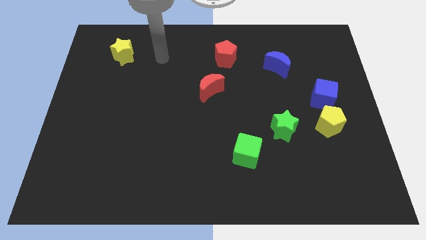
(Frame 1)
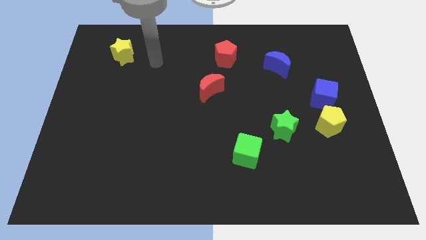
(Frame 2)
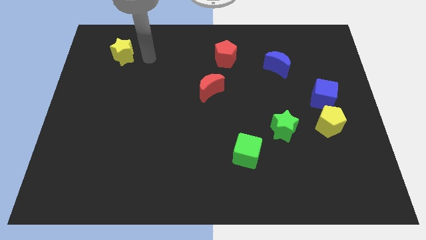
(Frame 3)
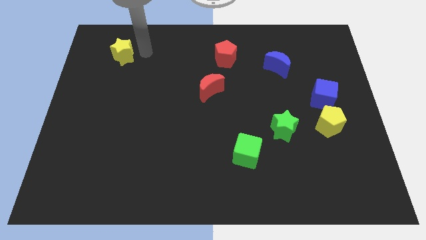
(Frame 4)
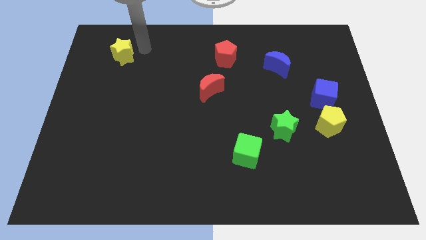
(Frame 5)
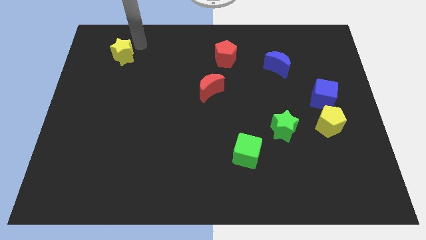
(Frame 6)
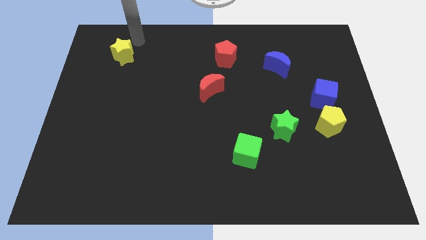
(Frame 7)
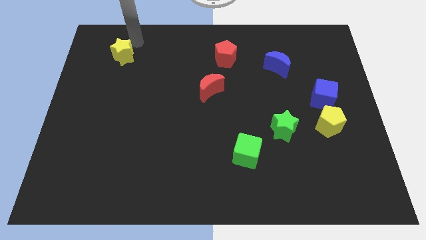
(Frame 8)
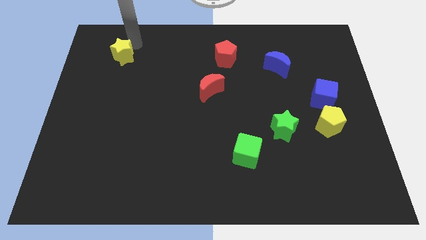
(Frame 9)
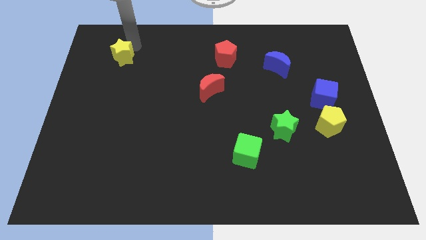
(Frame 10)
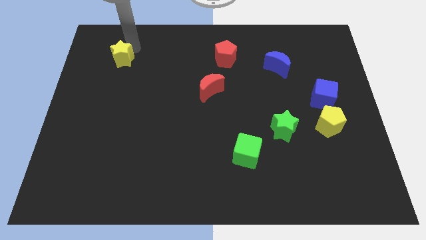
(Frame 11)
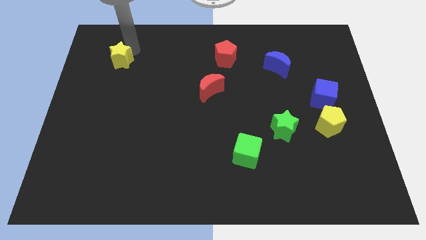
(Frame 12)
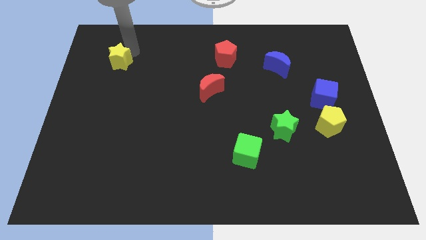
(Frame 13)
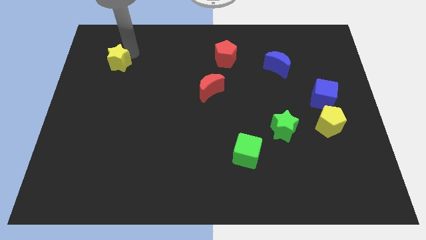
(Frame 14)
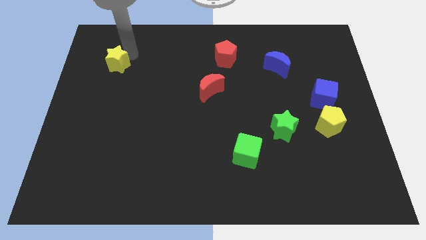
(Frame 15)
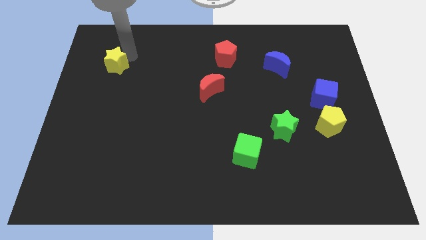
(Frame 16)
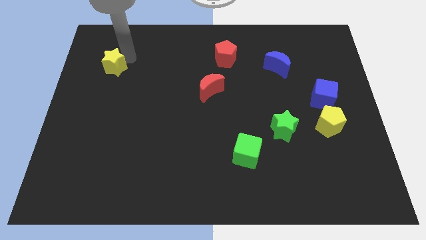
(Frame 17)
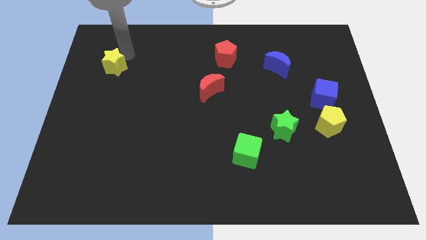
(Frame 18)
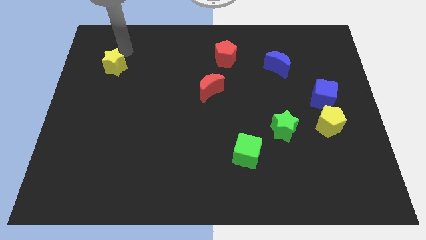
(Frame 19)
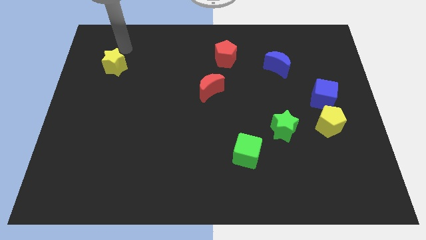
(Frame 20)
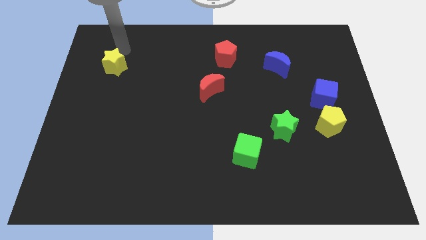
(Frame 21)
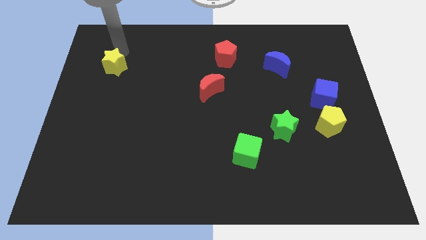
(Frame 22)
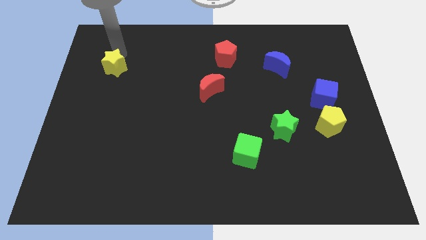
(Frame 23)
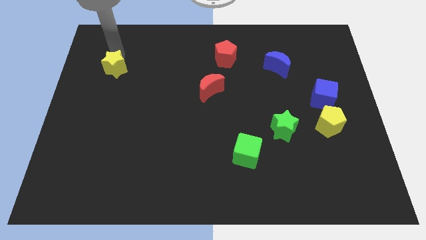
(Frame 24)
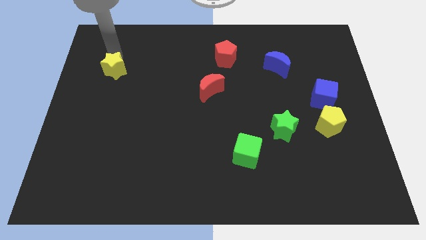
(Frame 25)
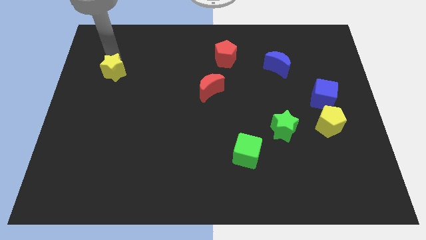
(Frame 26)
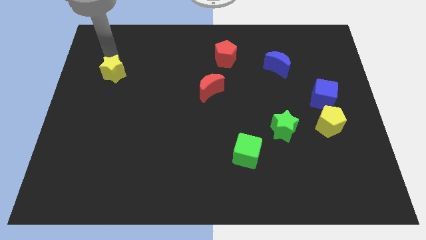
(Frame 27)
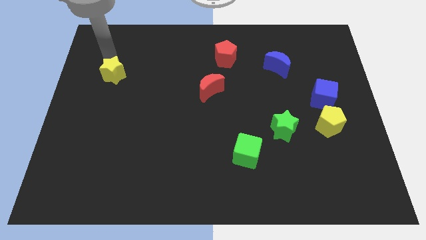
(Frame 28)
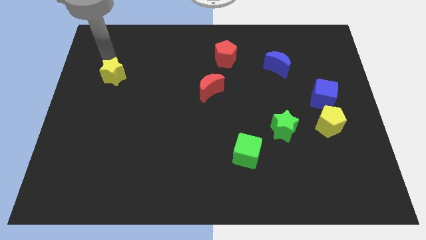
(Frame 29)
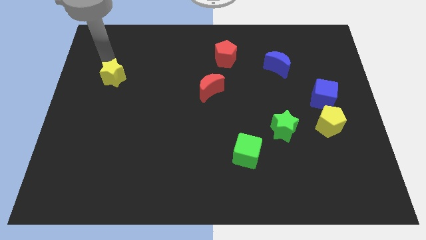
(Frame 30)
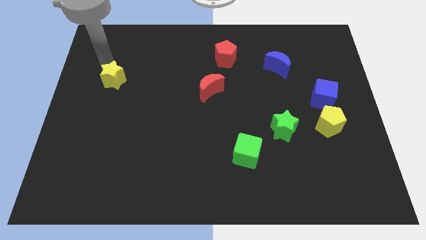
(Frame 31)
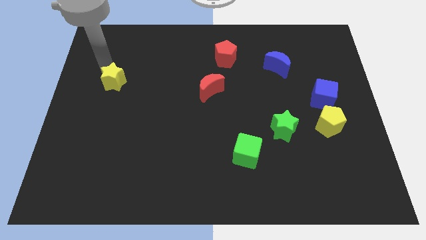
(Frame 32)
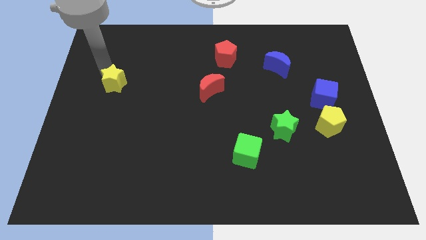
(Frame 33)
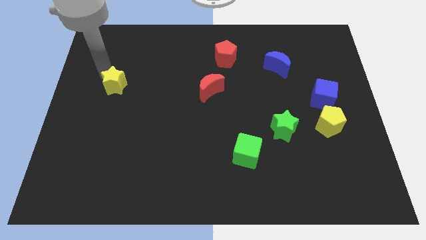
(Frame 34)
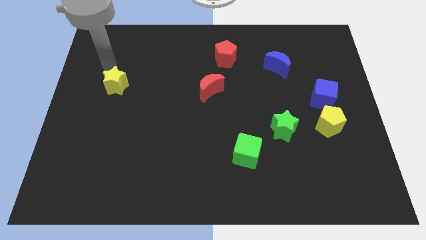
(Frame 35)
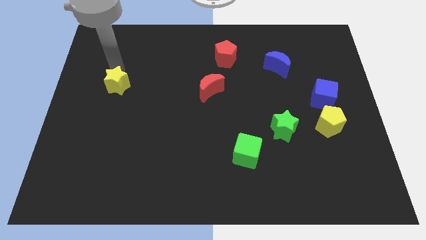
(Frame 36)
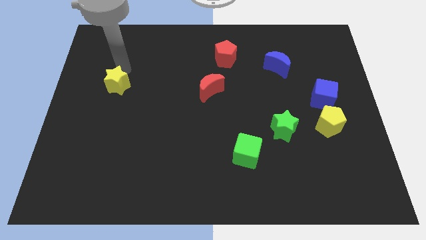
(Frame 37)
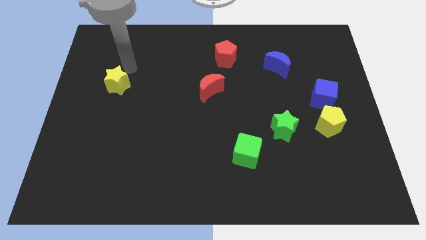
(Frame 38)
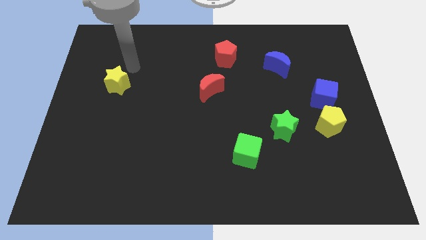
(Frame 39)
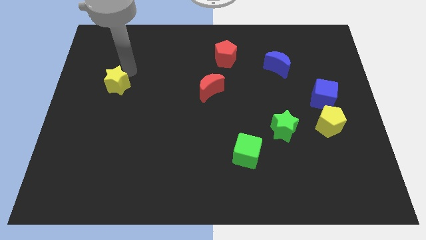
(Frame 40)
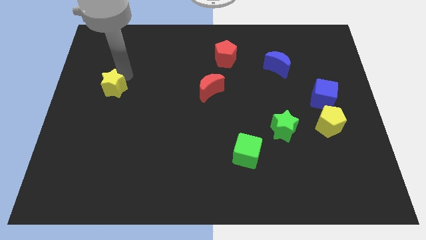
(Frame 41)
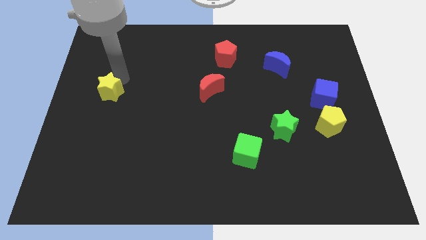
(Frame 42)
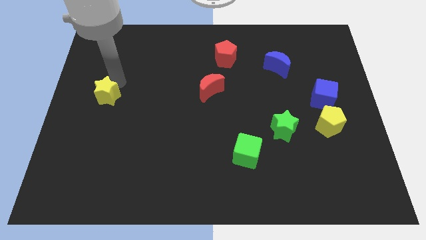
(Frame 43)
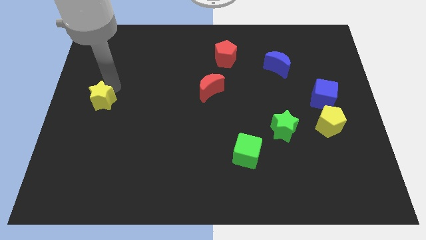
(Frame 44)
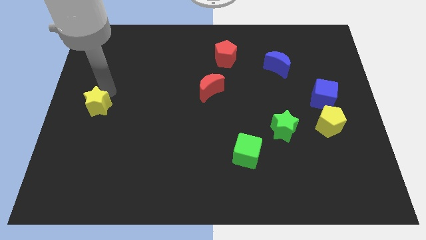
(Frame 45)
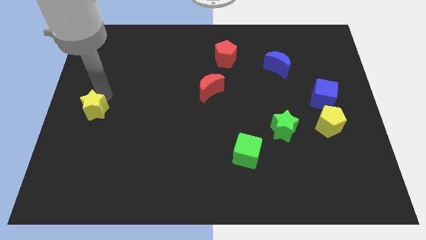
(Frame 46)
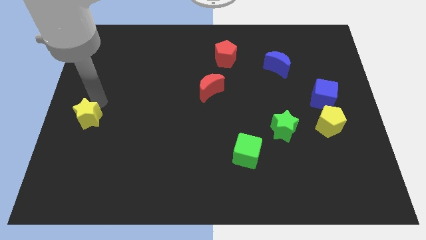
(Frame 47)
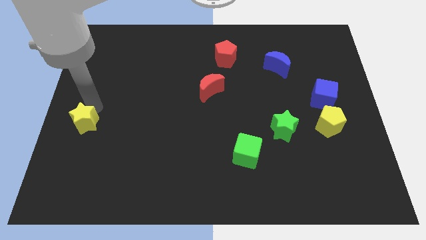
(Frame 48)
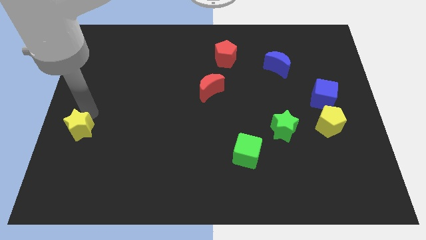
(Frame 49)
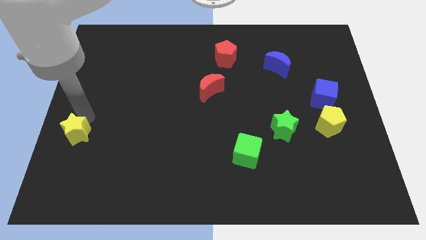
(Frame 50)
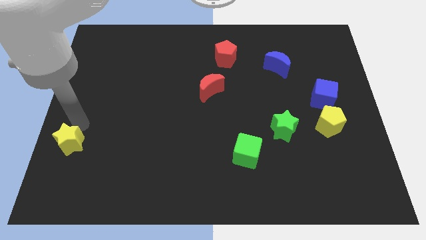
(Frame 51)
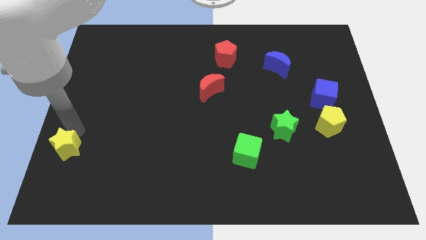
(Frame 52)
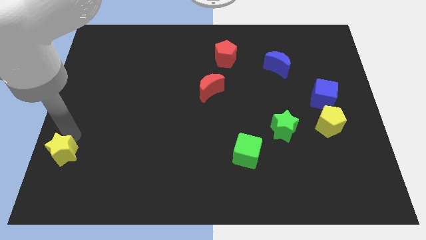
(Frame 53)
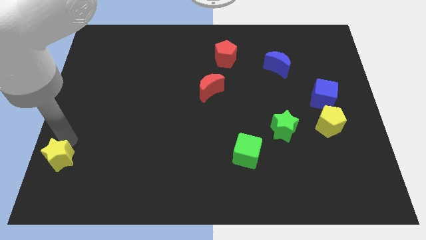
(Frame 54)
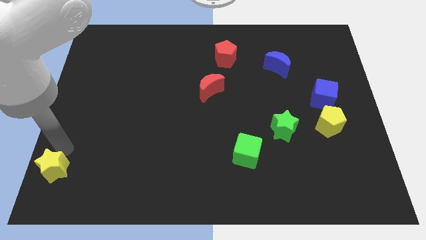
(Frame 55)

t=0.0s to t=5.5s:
push the yellow star to the bottom left of the board

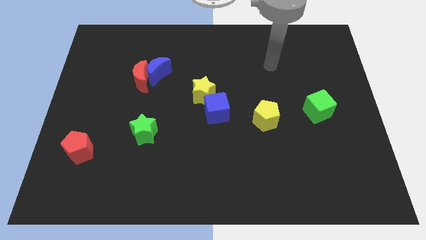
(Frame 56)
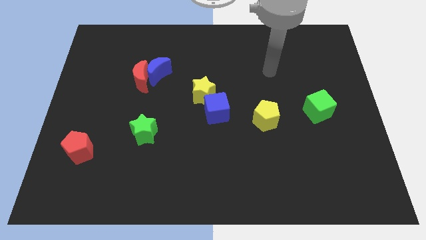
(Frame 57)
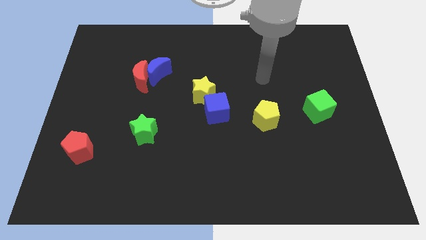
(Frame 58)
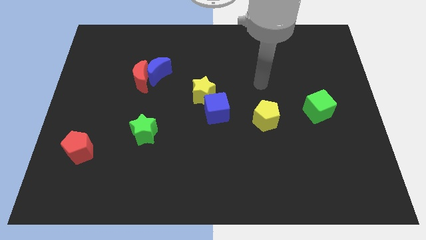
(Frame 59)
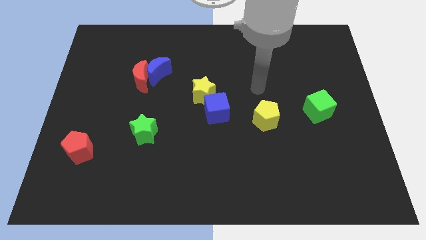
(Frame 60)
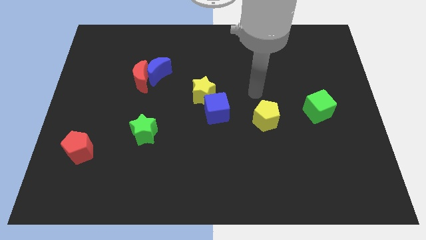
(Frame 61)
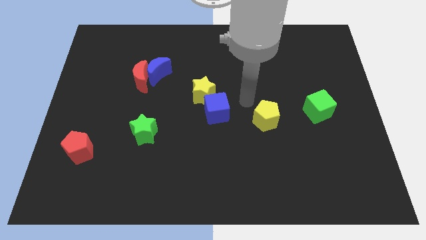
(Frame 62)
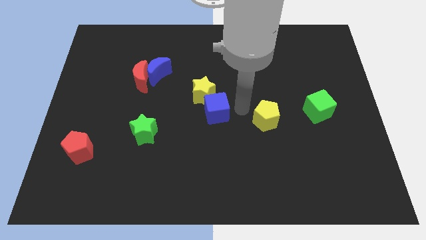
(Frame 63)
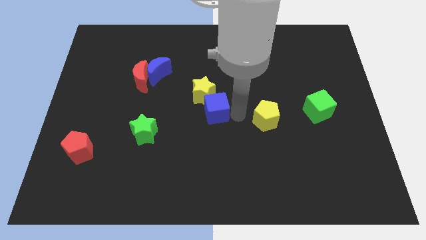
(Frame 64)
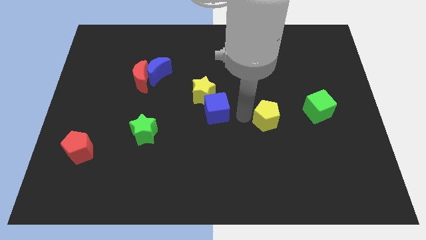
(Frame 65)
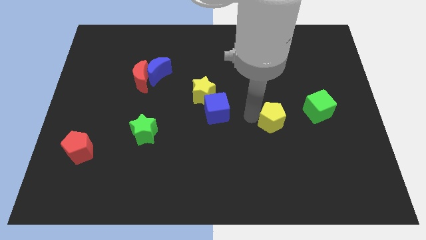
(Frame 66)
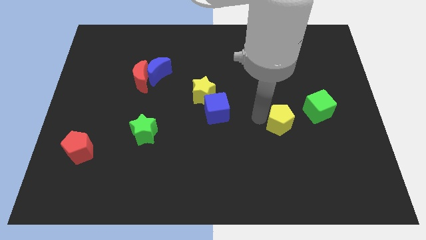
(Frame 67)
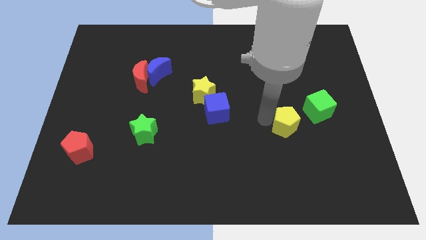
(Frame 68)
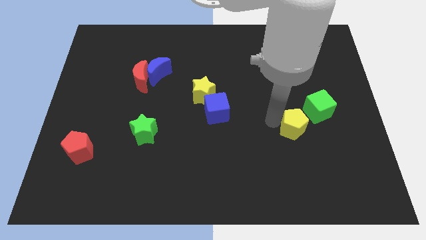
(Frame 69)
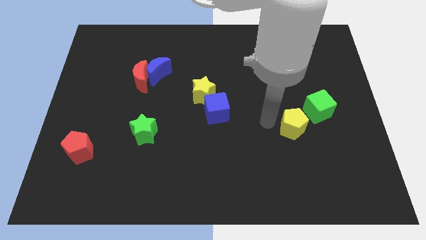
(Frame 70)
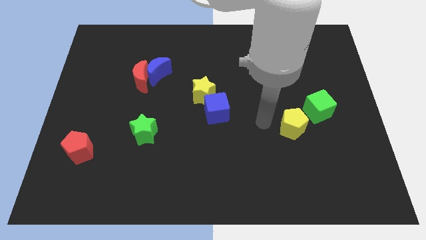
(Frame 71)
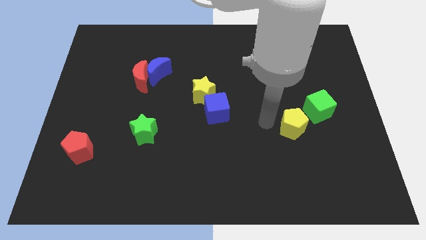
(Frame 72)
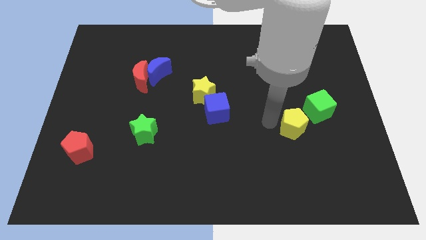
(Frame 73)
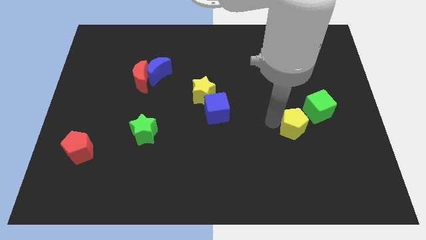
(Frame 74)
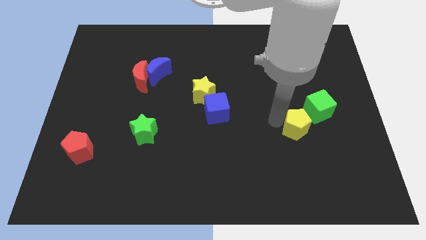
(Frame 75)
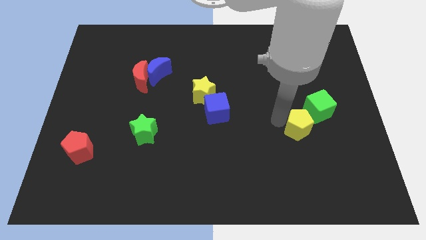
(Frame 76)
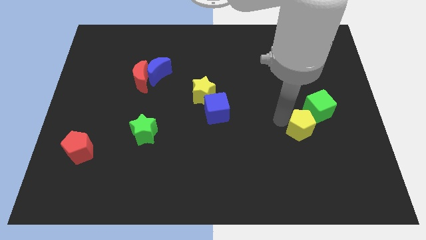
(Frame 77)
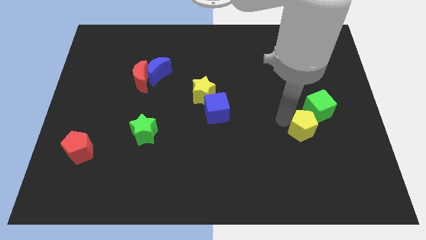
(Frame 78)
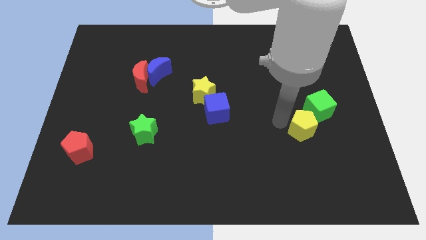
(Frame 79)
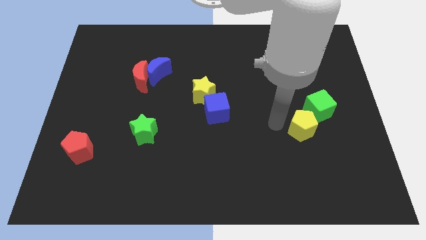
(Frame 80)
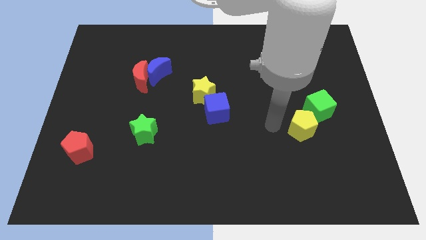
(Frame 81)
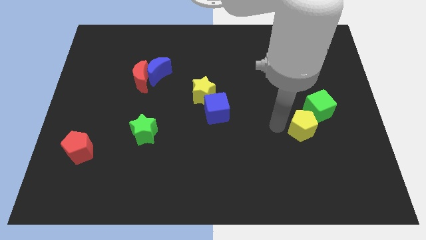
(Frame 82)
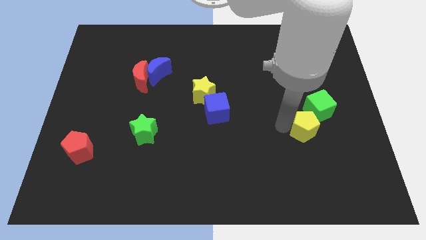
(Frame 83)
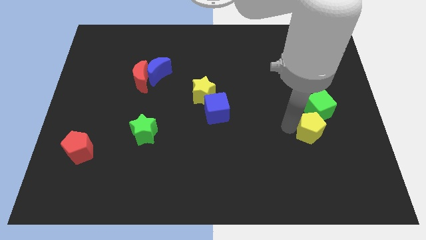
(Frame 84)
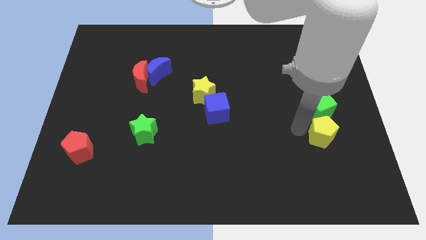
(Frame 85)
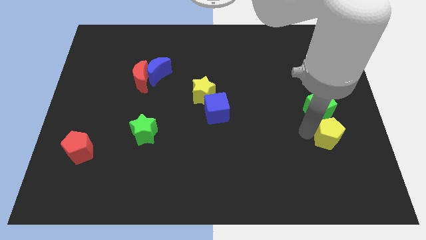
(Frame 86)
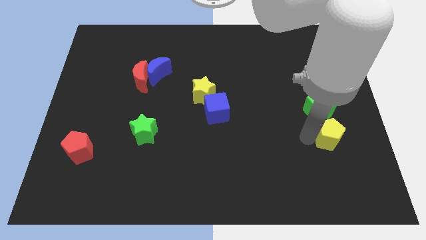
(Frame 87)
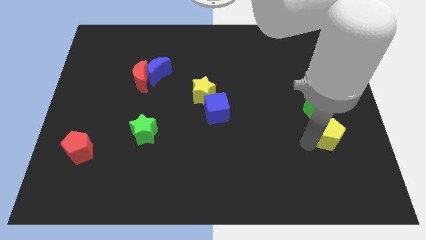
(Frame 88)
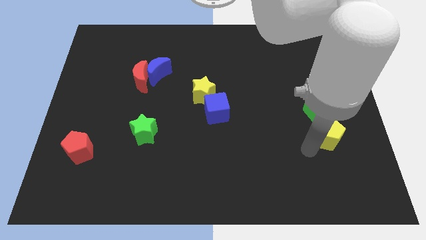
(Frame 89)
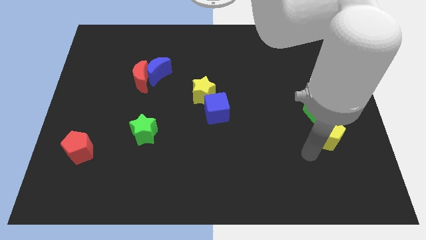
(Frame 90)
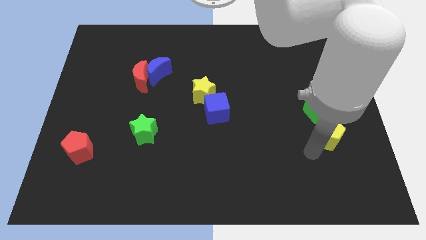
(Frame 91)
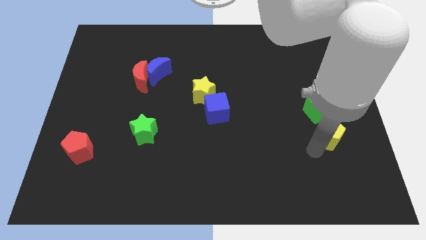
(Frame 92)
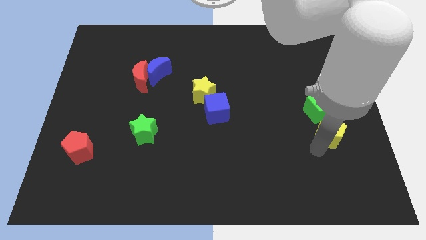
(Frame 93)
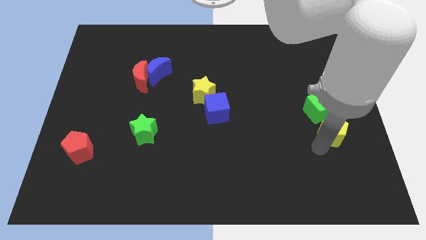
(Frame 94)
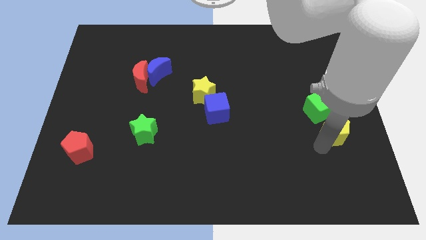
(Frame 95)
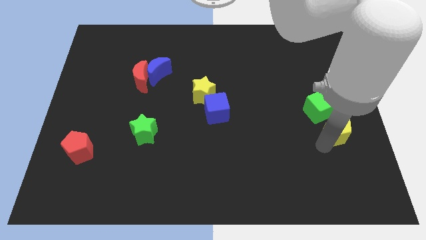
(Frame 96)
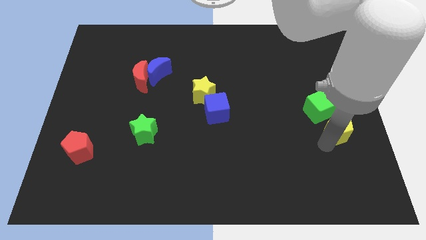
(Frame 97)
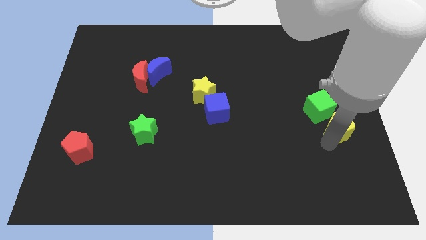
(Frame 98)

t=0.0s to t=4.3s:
slide the yellow pentagon to the right side of the board
